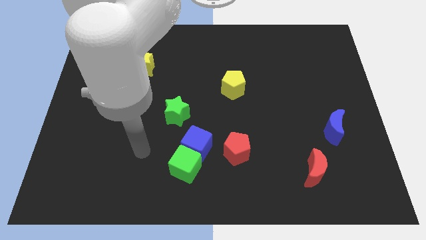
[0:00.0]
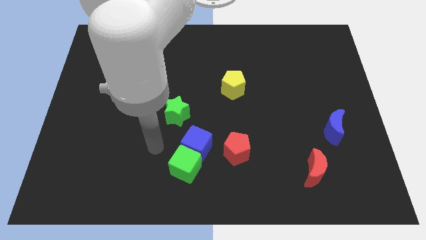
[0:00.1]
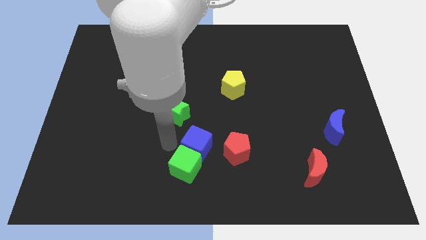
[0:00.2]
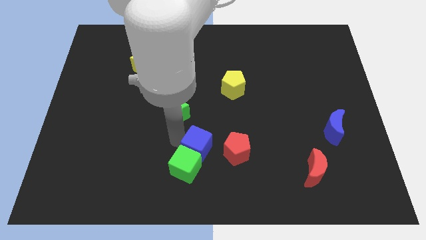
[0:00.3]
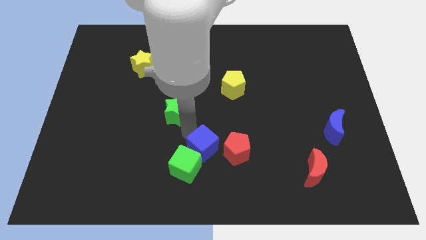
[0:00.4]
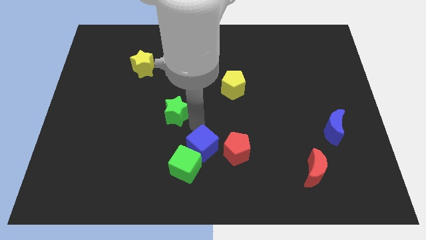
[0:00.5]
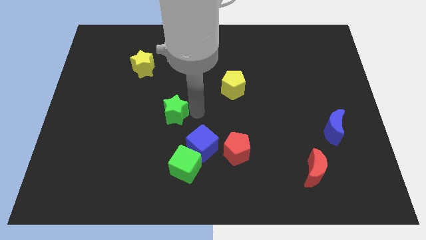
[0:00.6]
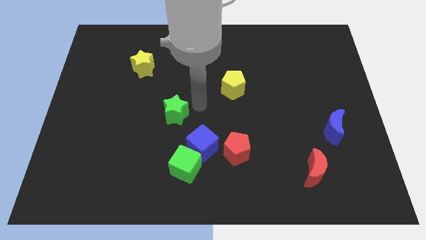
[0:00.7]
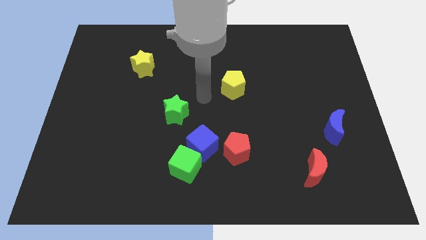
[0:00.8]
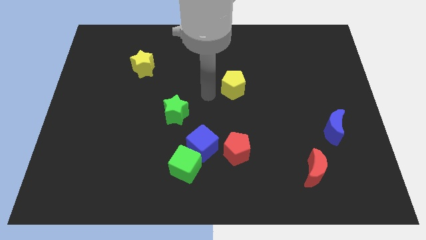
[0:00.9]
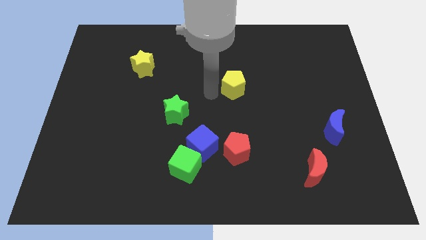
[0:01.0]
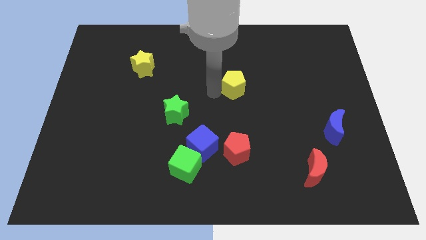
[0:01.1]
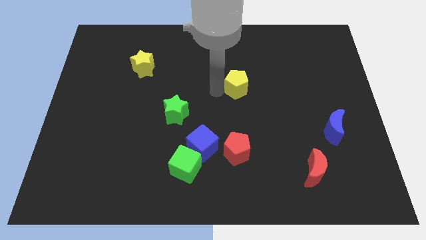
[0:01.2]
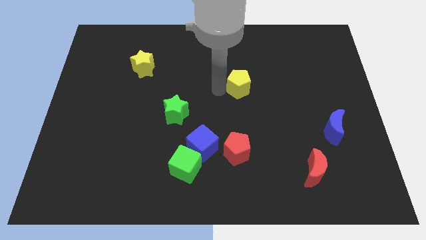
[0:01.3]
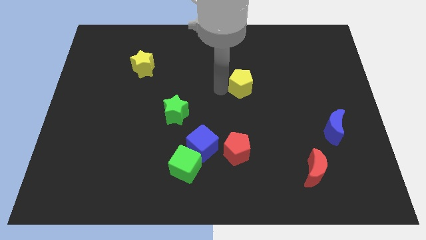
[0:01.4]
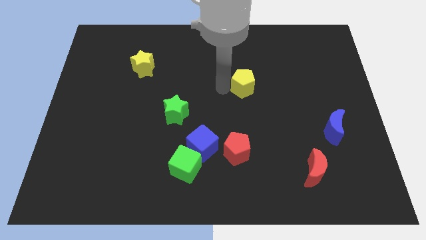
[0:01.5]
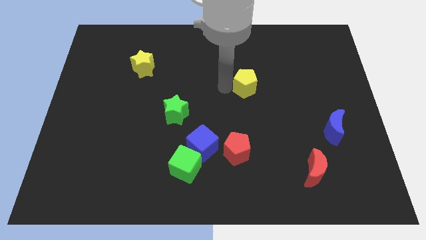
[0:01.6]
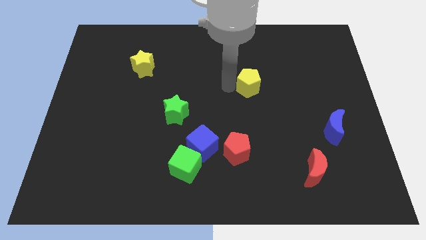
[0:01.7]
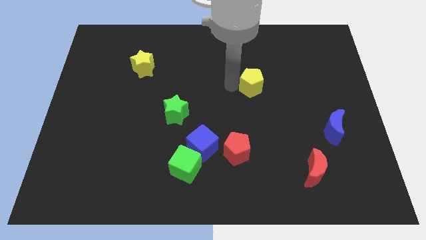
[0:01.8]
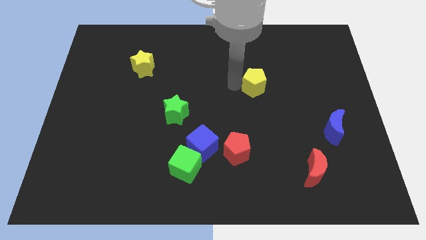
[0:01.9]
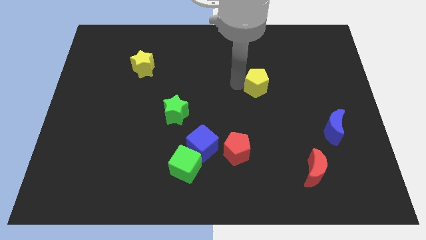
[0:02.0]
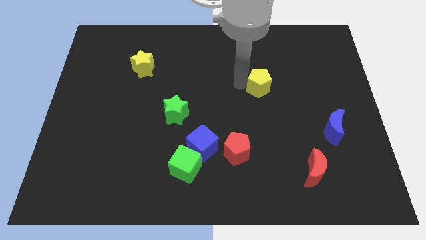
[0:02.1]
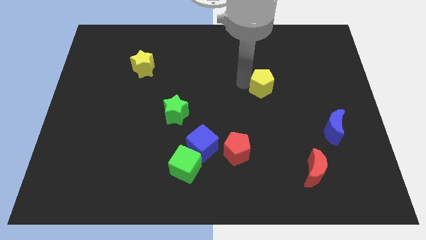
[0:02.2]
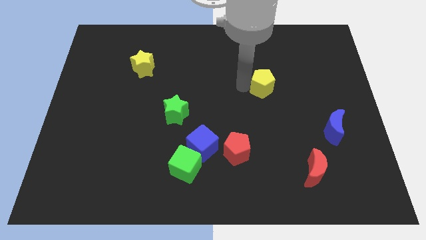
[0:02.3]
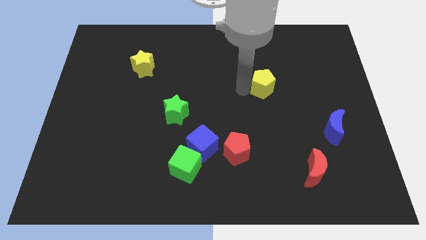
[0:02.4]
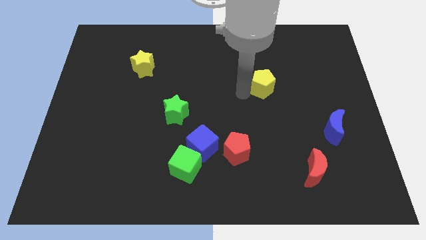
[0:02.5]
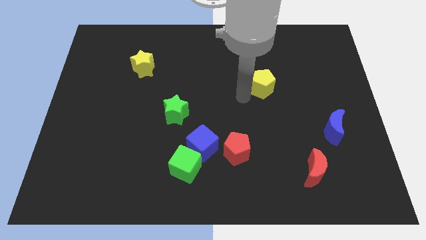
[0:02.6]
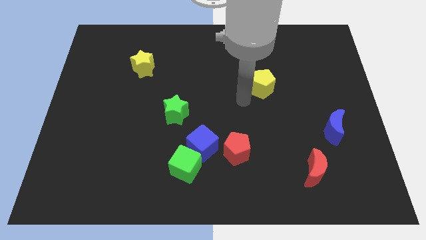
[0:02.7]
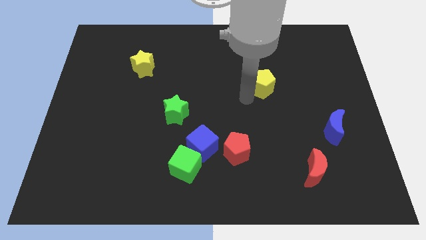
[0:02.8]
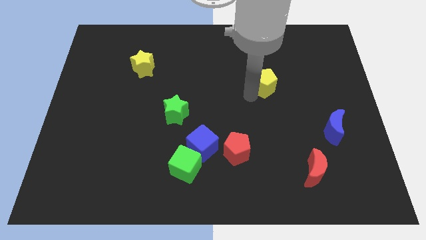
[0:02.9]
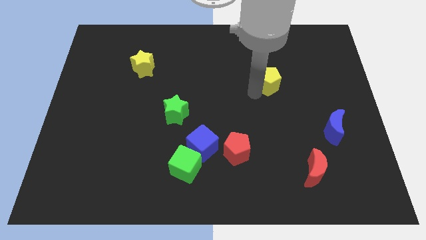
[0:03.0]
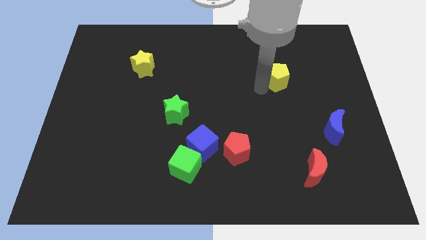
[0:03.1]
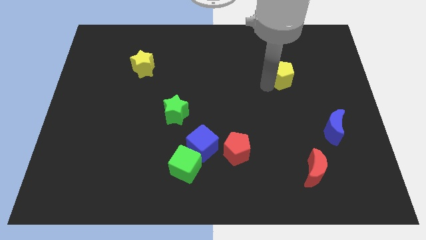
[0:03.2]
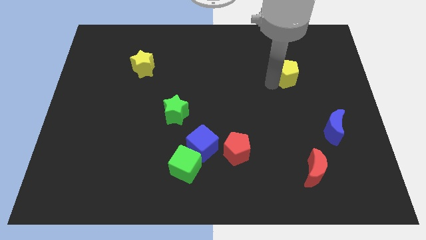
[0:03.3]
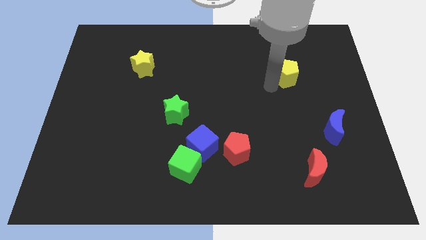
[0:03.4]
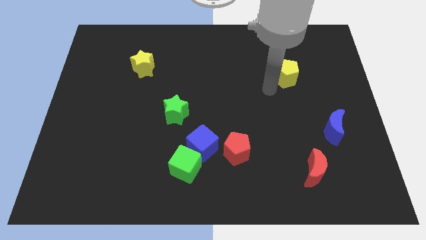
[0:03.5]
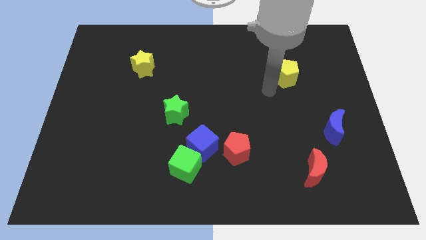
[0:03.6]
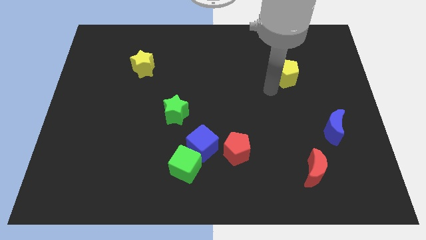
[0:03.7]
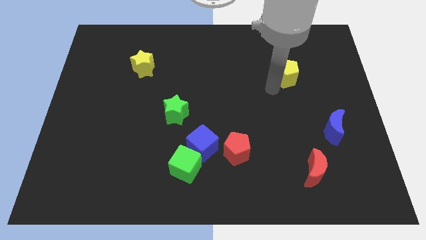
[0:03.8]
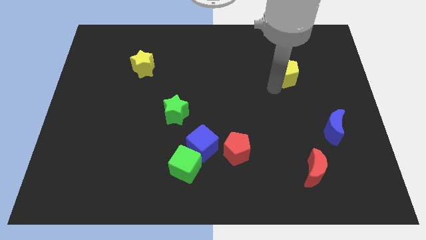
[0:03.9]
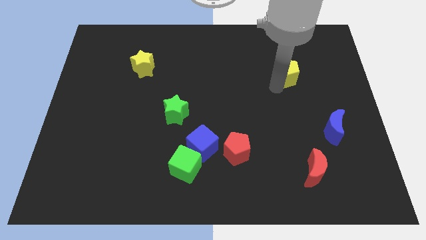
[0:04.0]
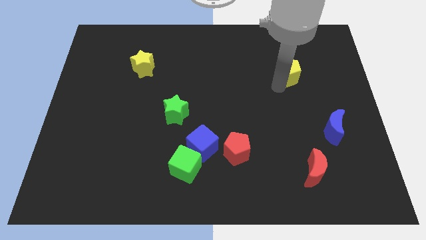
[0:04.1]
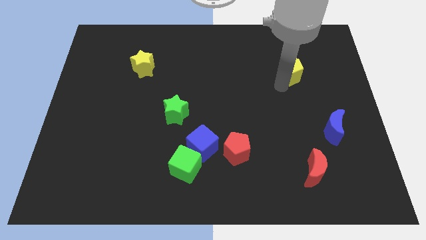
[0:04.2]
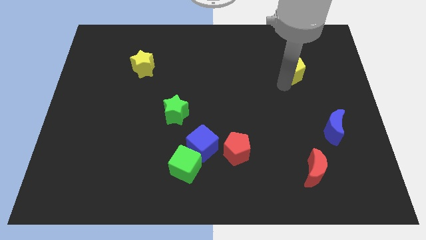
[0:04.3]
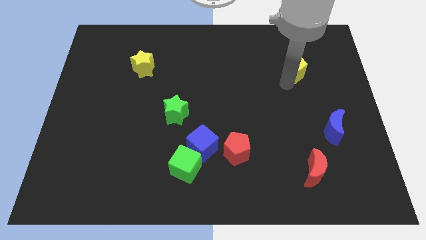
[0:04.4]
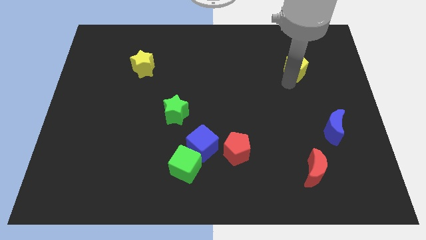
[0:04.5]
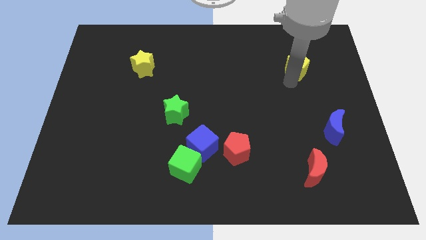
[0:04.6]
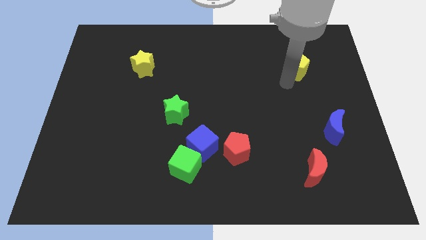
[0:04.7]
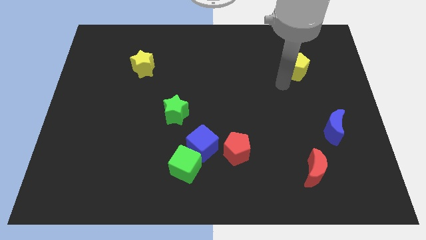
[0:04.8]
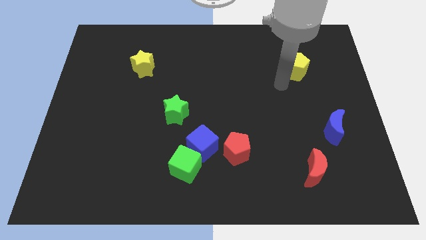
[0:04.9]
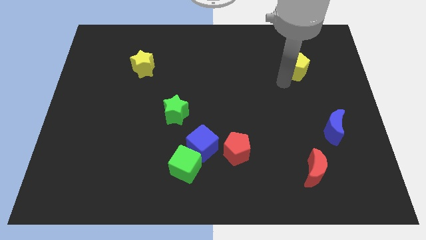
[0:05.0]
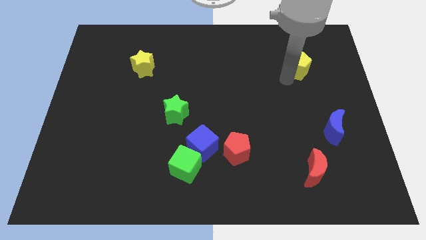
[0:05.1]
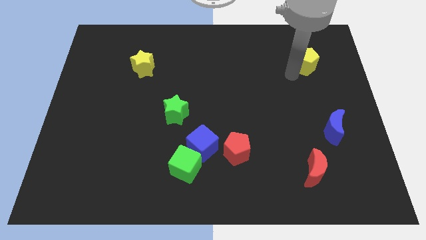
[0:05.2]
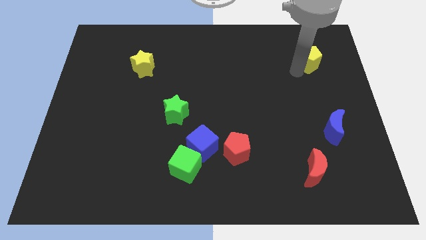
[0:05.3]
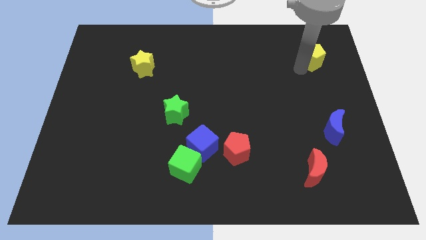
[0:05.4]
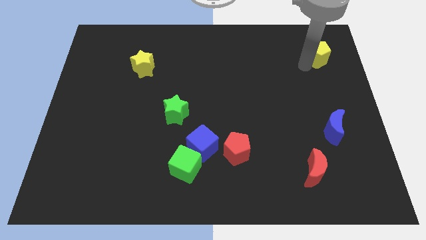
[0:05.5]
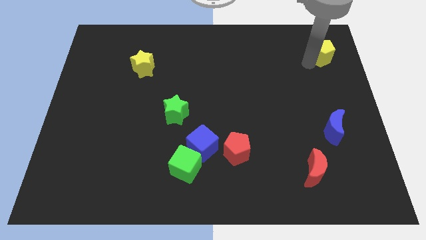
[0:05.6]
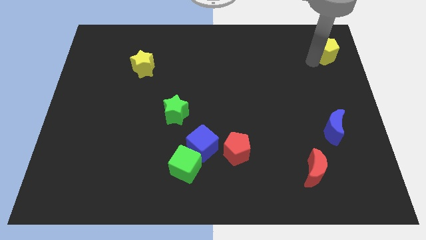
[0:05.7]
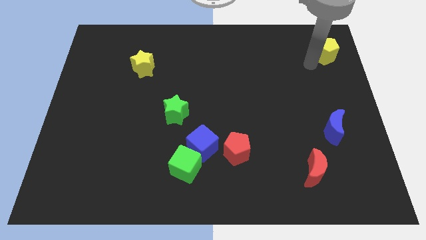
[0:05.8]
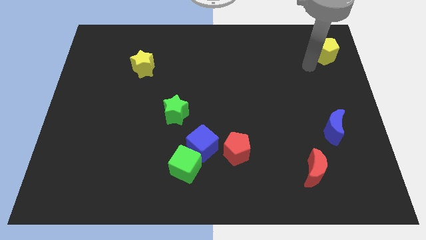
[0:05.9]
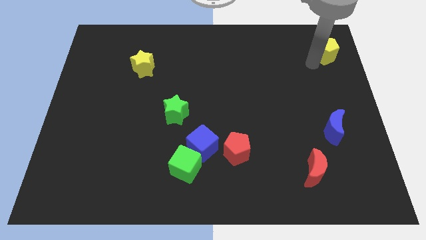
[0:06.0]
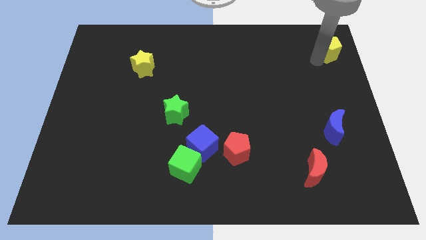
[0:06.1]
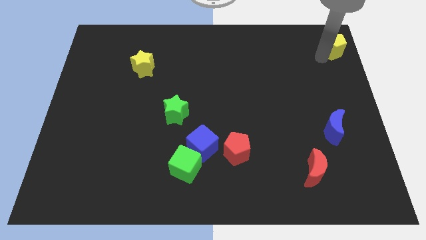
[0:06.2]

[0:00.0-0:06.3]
slide the yellow pentagon to the top right of the board

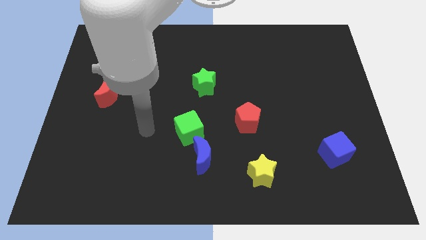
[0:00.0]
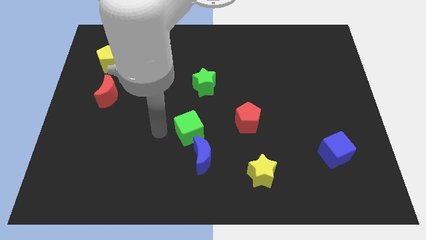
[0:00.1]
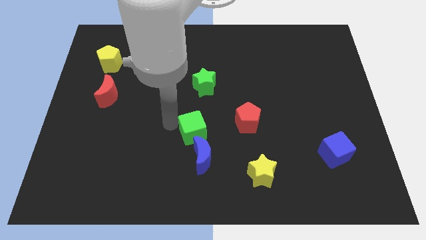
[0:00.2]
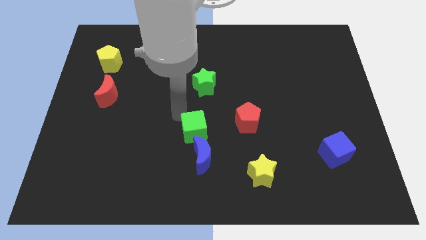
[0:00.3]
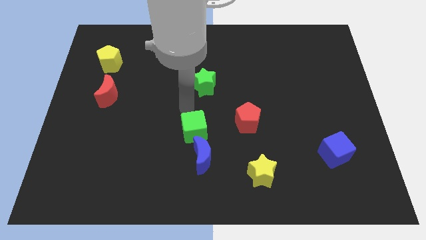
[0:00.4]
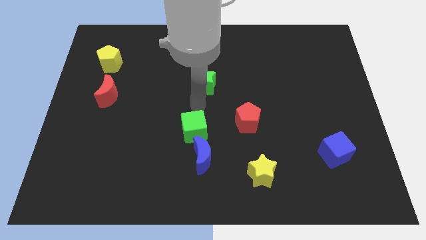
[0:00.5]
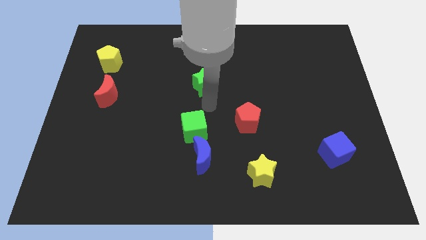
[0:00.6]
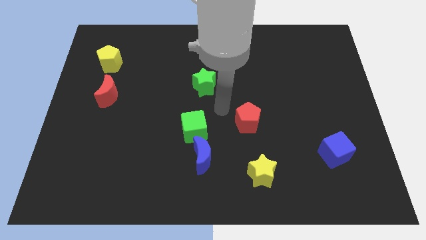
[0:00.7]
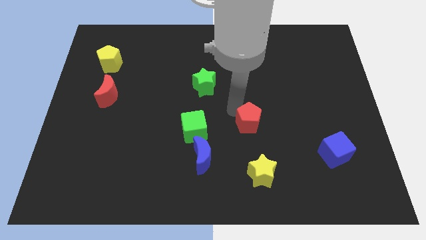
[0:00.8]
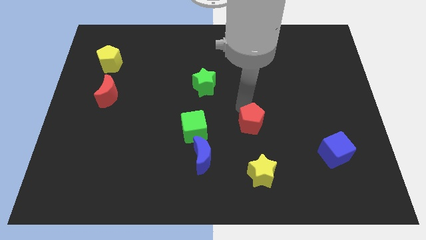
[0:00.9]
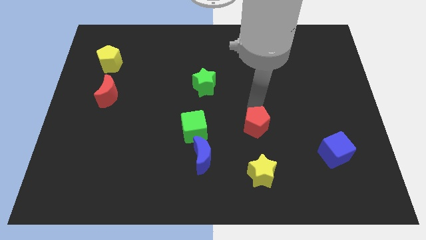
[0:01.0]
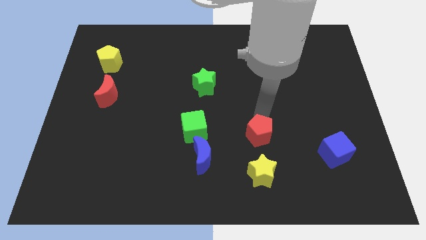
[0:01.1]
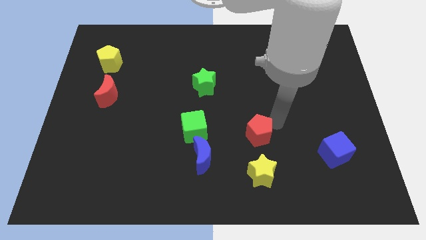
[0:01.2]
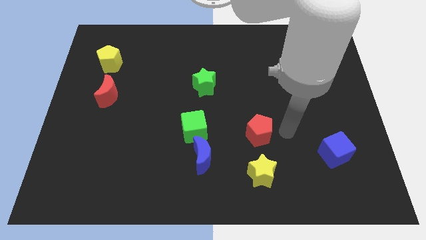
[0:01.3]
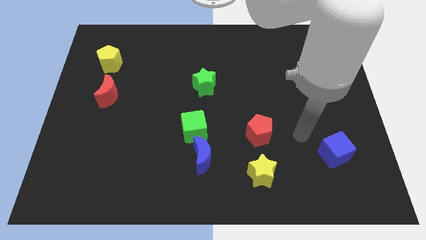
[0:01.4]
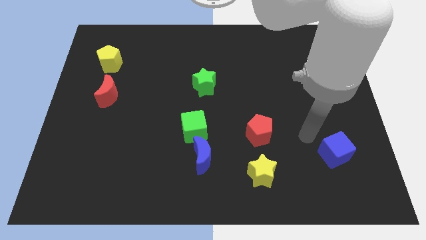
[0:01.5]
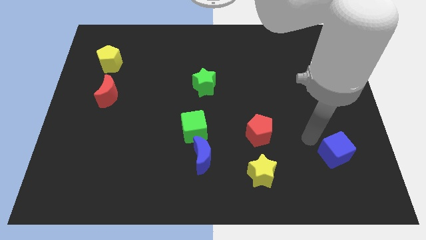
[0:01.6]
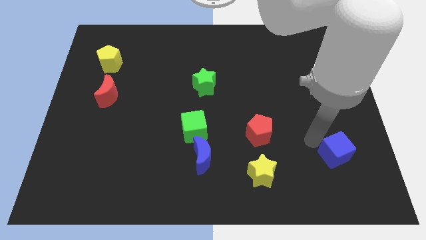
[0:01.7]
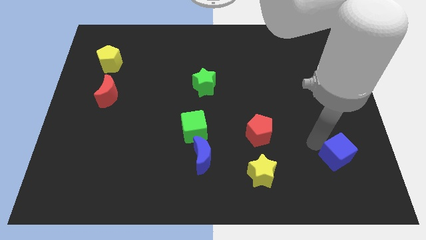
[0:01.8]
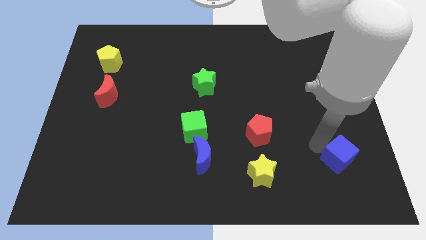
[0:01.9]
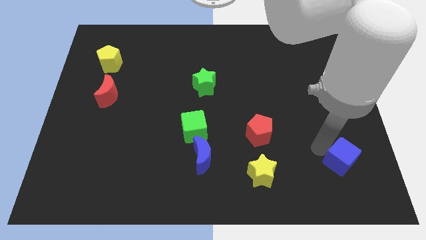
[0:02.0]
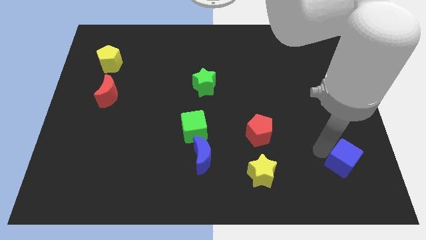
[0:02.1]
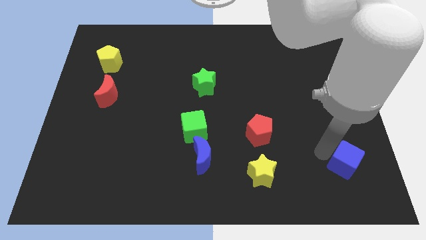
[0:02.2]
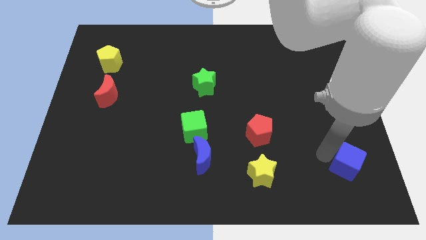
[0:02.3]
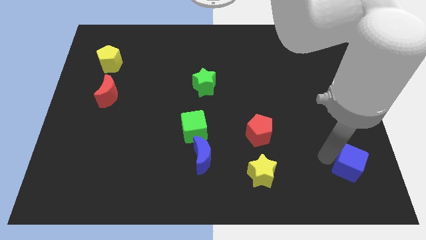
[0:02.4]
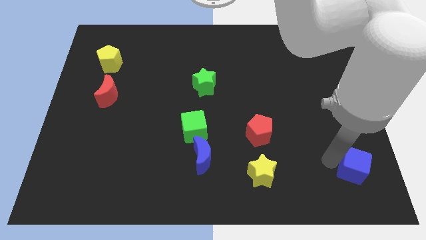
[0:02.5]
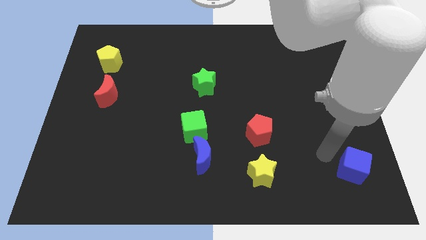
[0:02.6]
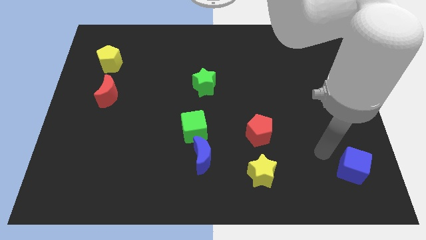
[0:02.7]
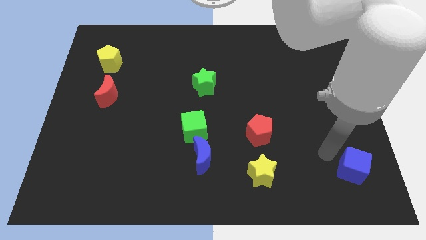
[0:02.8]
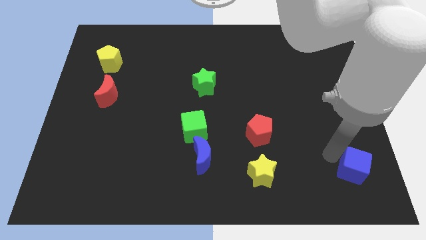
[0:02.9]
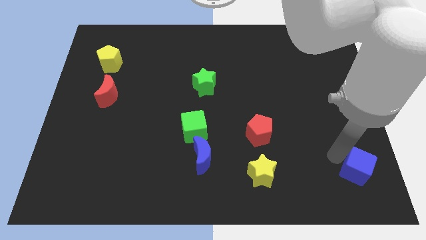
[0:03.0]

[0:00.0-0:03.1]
slide the blue cube to the bottom right
